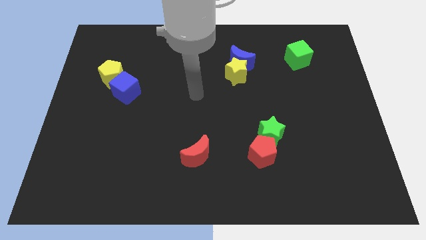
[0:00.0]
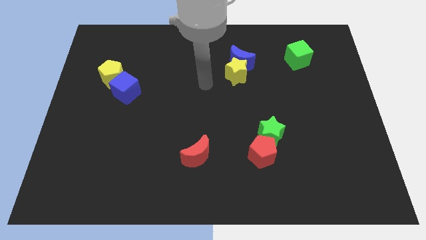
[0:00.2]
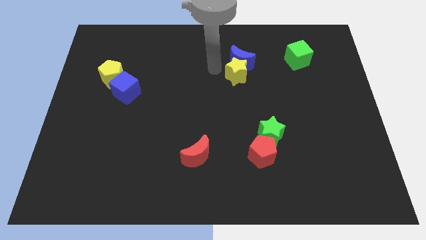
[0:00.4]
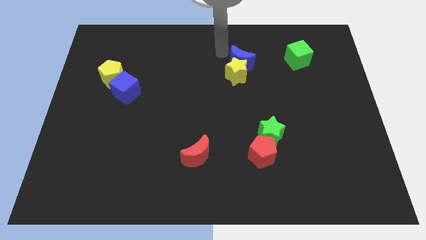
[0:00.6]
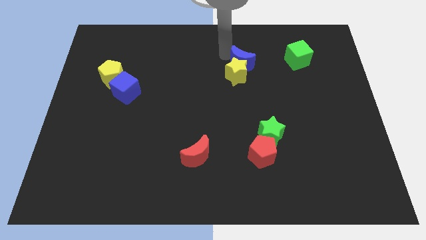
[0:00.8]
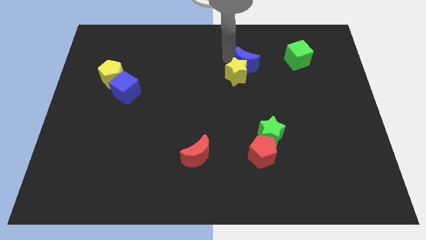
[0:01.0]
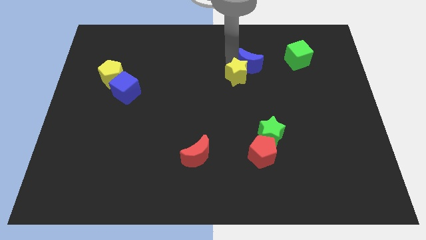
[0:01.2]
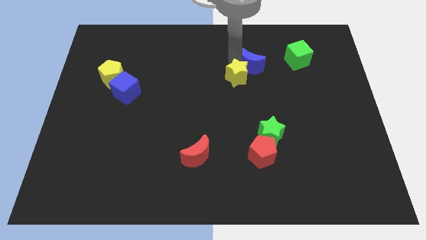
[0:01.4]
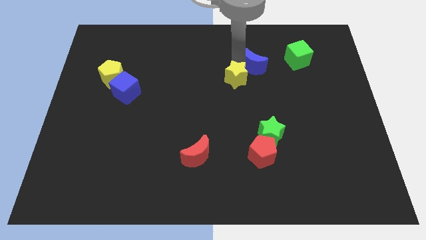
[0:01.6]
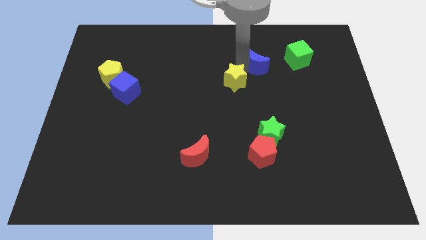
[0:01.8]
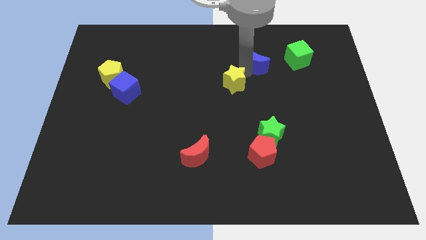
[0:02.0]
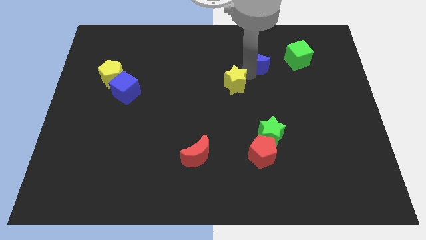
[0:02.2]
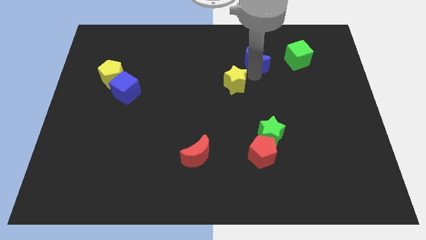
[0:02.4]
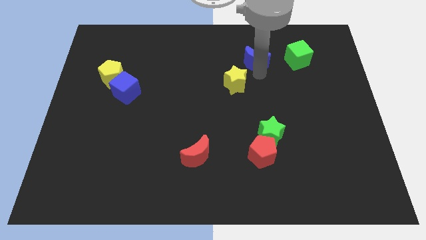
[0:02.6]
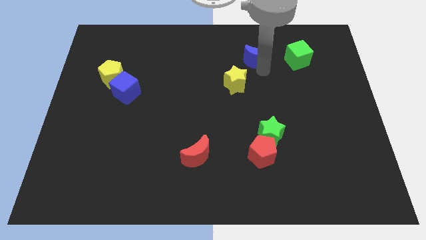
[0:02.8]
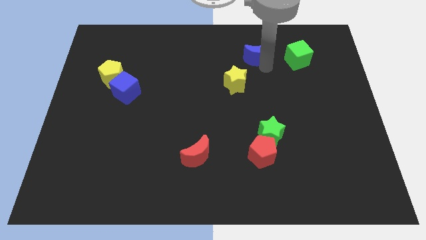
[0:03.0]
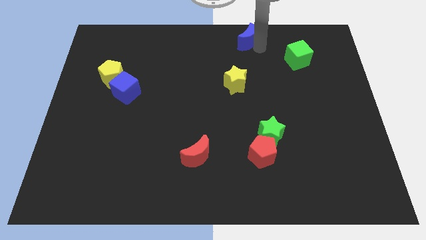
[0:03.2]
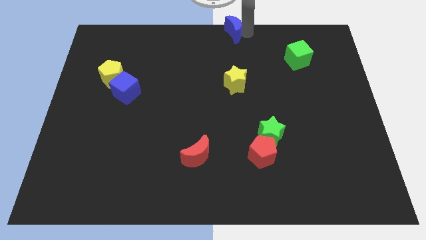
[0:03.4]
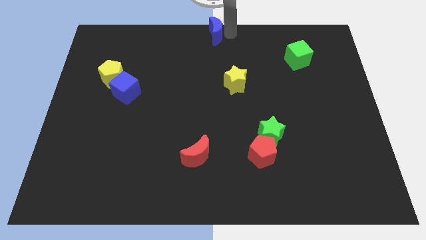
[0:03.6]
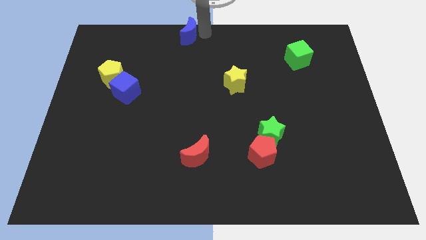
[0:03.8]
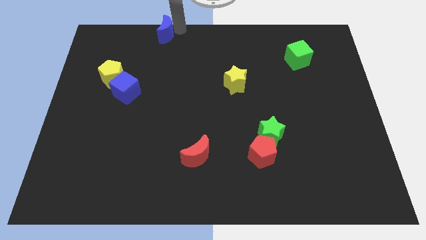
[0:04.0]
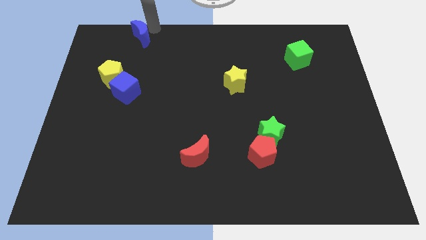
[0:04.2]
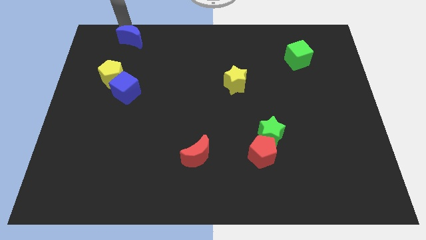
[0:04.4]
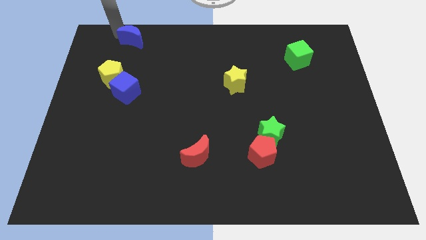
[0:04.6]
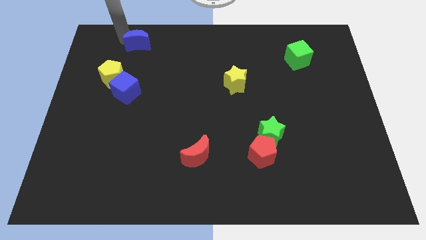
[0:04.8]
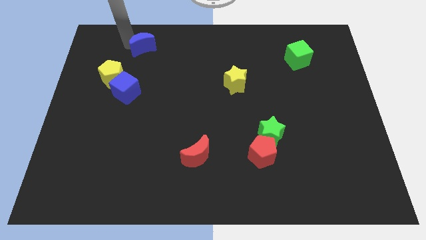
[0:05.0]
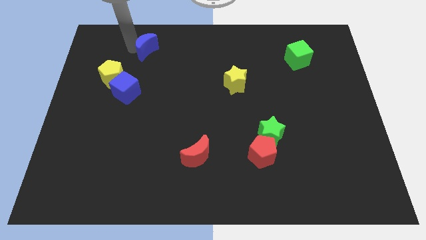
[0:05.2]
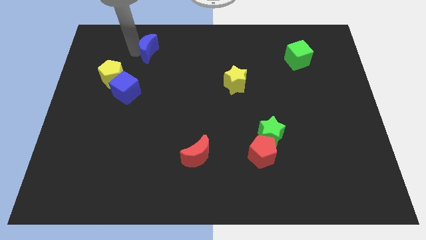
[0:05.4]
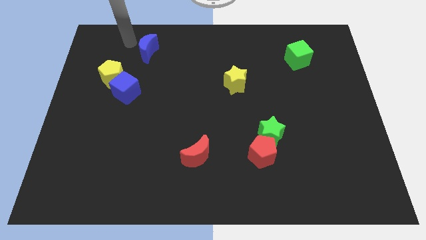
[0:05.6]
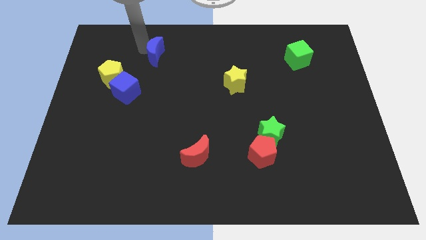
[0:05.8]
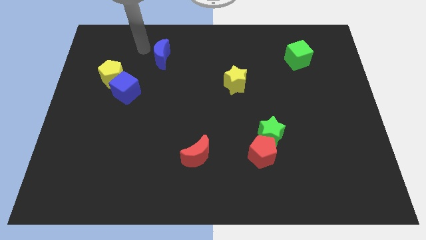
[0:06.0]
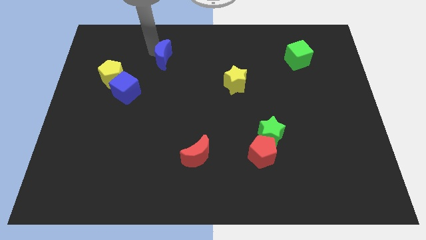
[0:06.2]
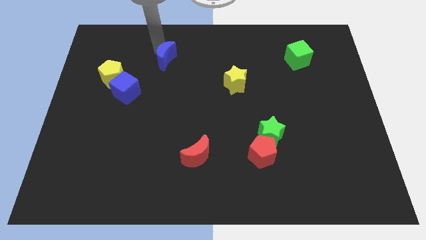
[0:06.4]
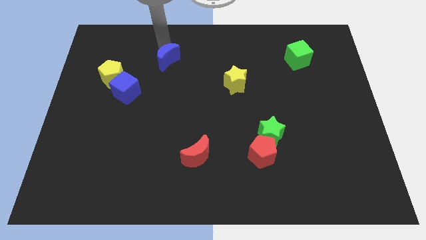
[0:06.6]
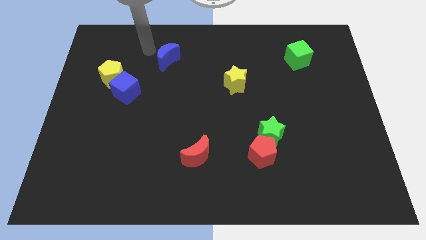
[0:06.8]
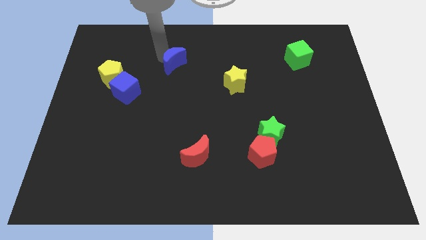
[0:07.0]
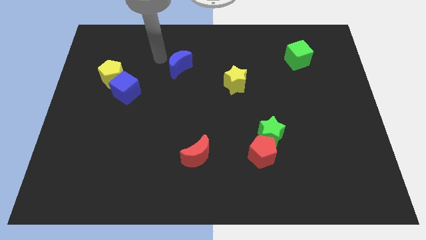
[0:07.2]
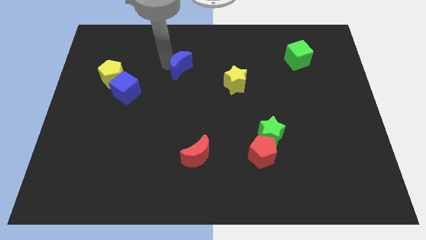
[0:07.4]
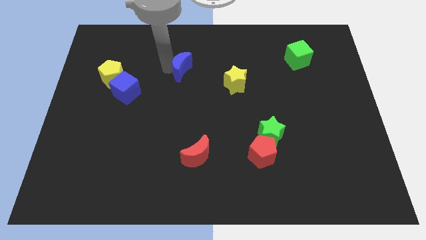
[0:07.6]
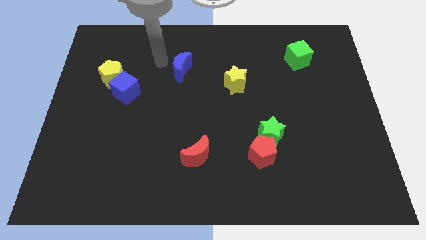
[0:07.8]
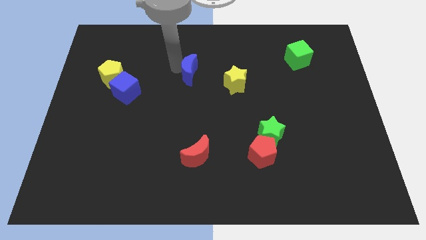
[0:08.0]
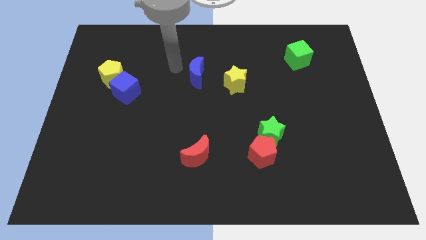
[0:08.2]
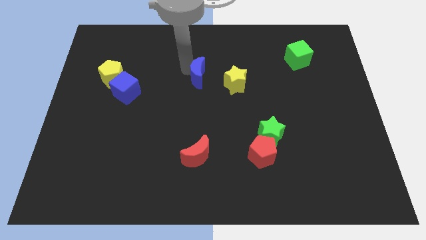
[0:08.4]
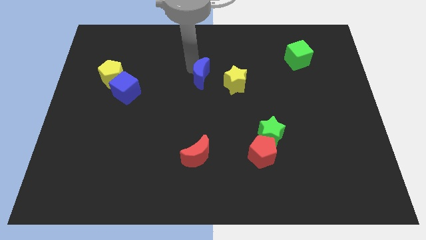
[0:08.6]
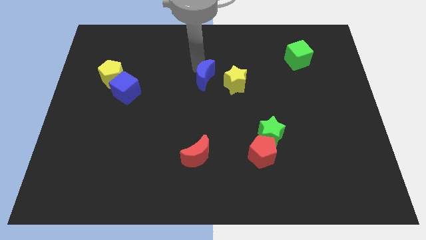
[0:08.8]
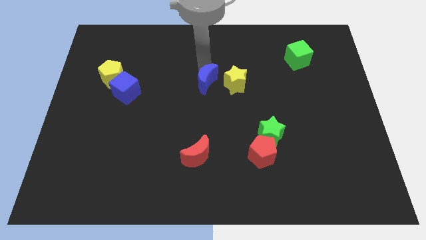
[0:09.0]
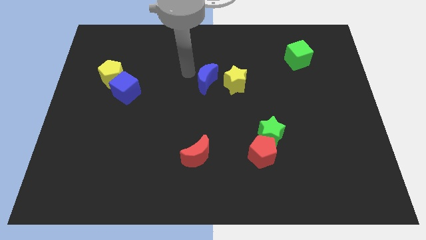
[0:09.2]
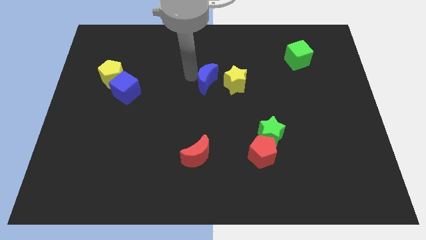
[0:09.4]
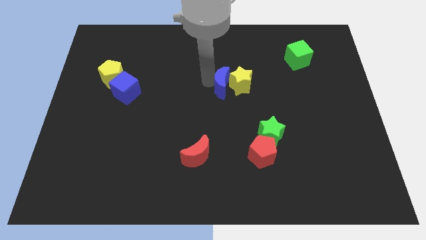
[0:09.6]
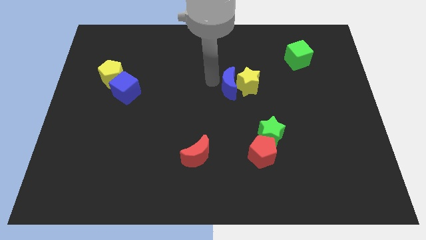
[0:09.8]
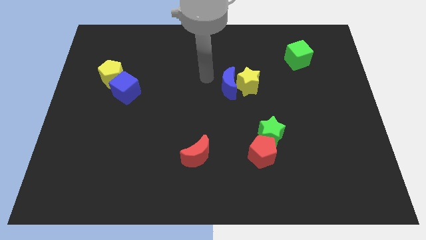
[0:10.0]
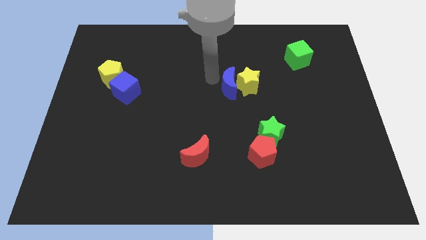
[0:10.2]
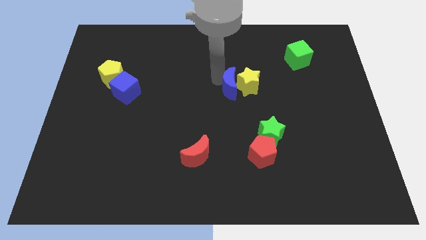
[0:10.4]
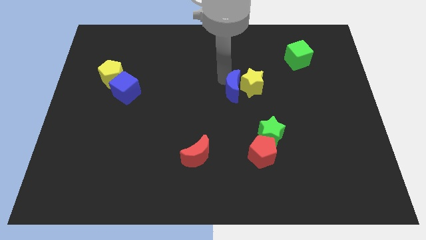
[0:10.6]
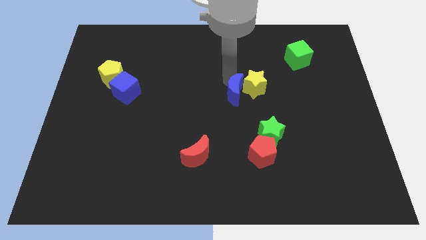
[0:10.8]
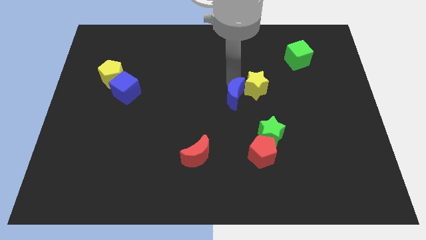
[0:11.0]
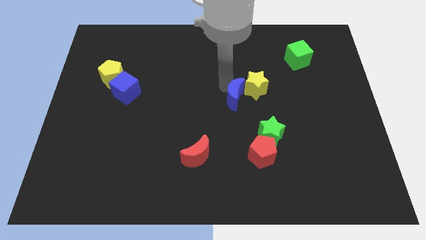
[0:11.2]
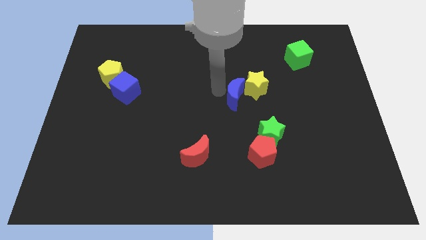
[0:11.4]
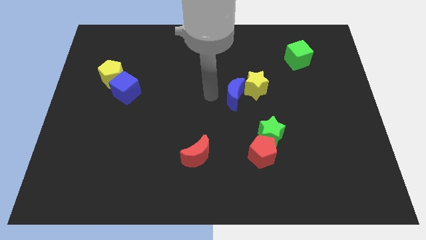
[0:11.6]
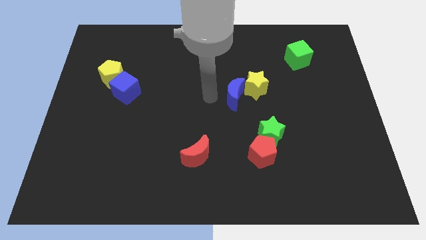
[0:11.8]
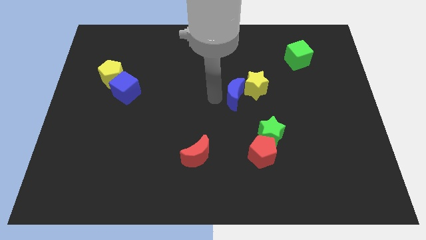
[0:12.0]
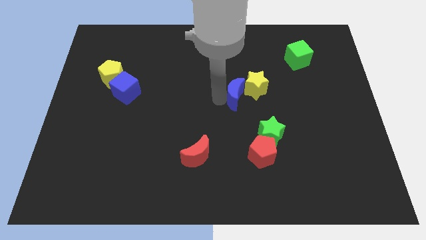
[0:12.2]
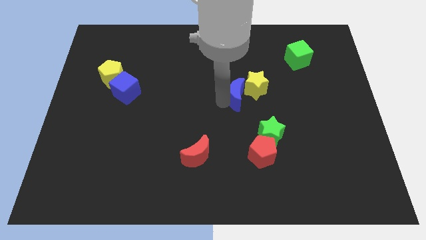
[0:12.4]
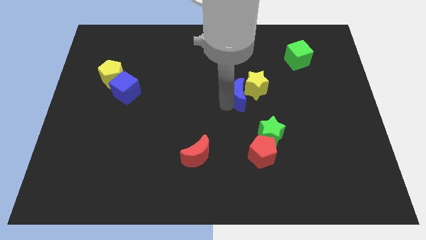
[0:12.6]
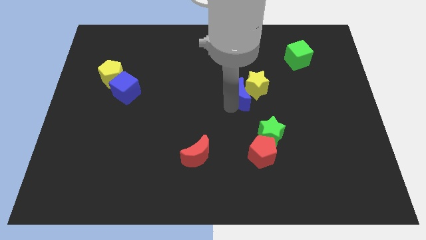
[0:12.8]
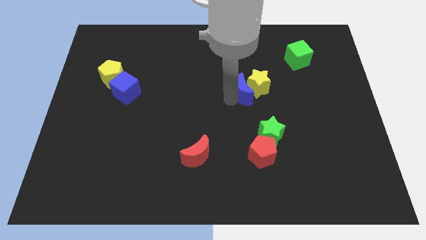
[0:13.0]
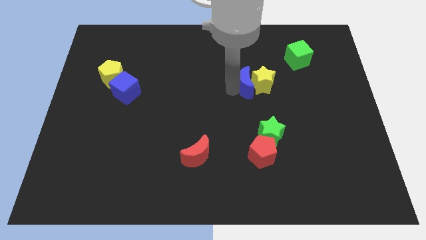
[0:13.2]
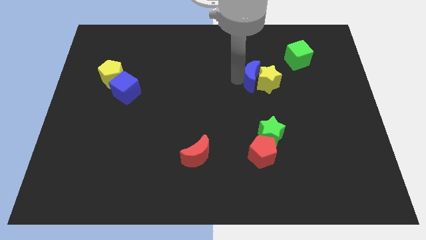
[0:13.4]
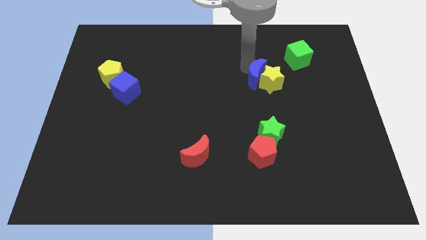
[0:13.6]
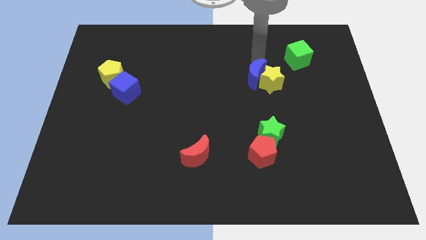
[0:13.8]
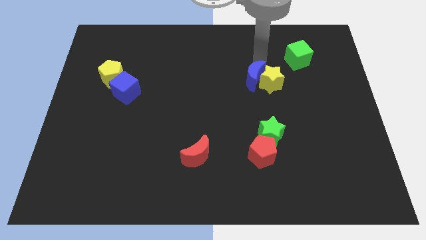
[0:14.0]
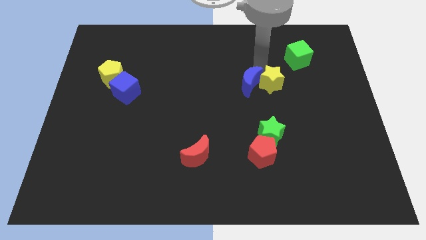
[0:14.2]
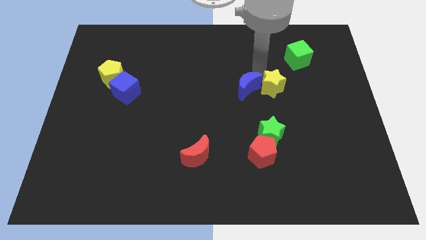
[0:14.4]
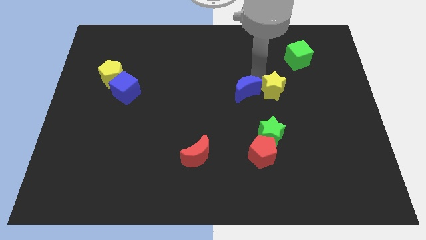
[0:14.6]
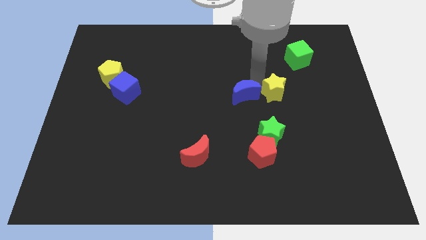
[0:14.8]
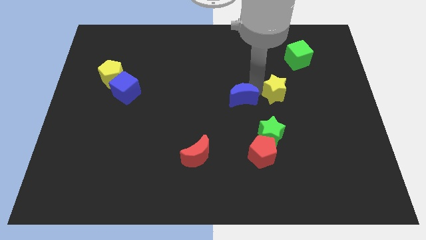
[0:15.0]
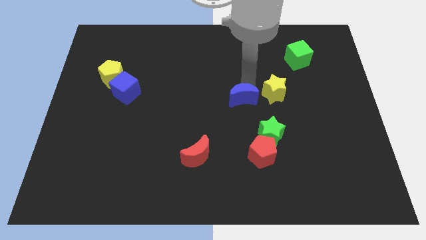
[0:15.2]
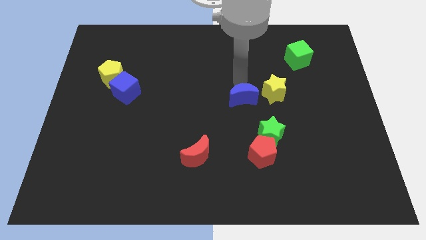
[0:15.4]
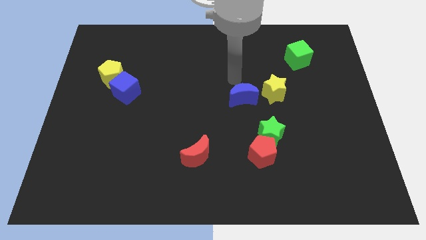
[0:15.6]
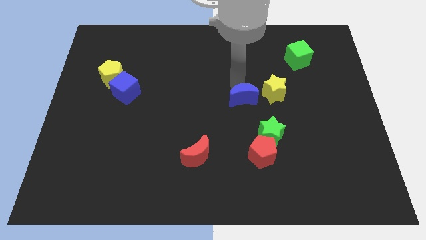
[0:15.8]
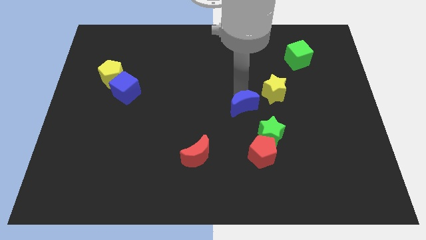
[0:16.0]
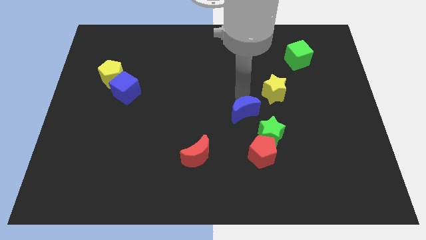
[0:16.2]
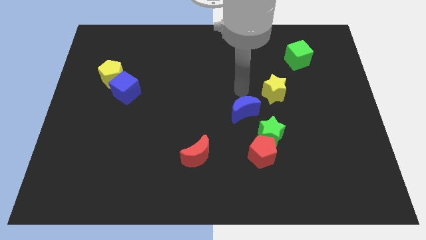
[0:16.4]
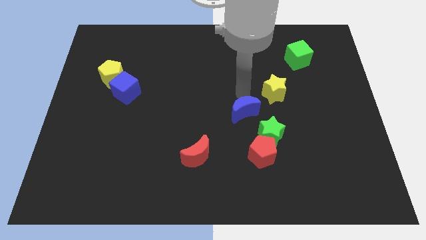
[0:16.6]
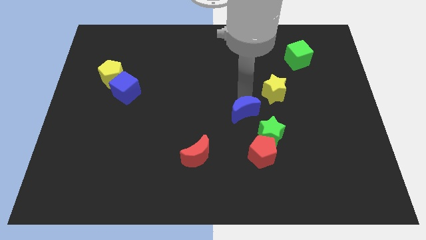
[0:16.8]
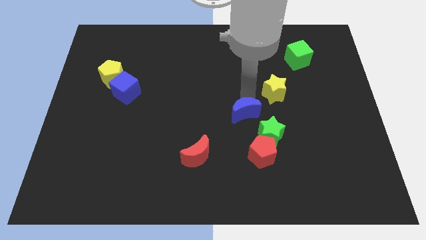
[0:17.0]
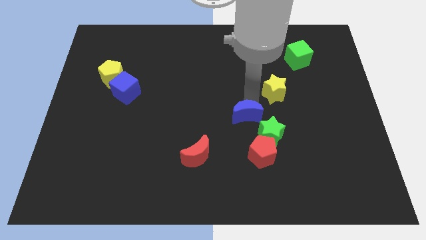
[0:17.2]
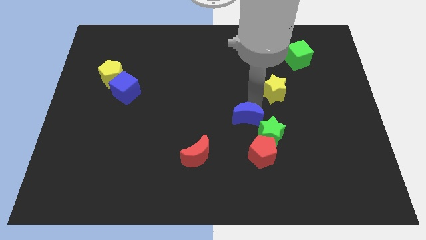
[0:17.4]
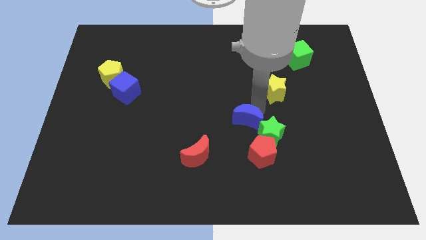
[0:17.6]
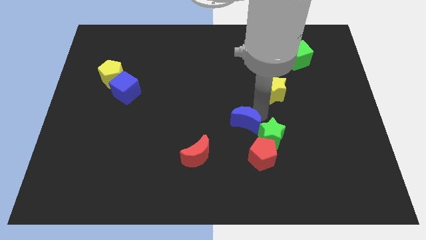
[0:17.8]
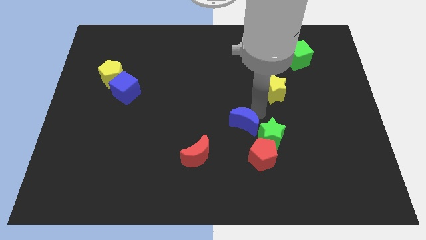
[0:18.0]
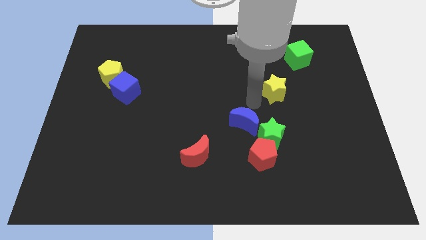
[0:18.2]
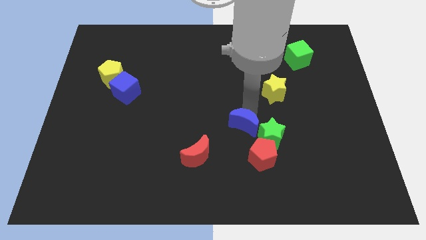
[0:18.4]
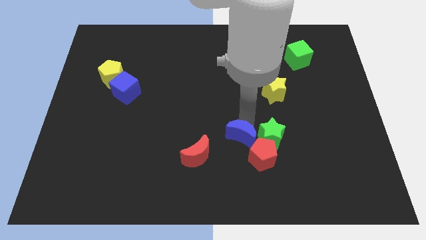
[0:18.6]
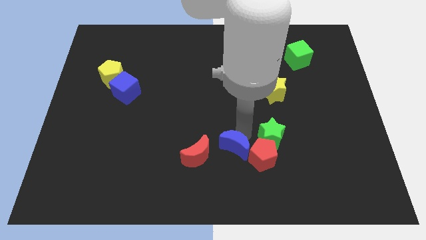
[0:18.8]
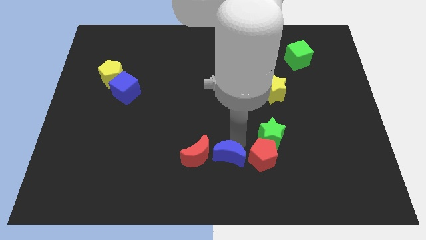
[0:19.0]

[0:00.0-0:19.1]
put the blue moon to the bottom
